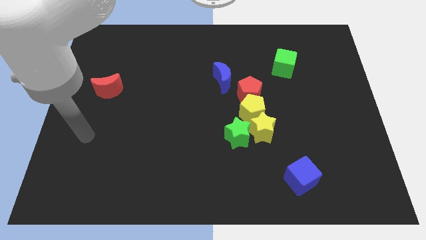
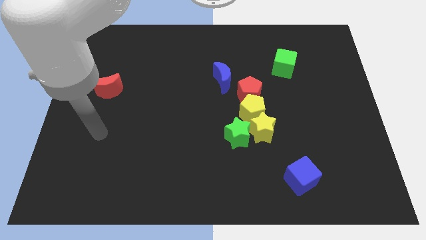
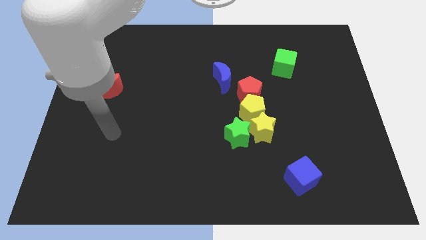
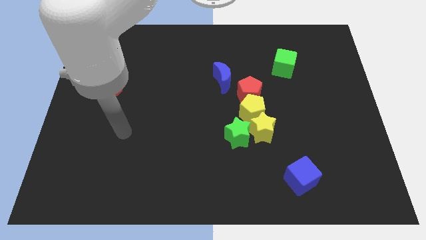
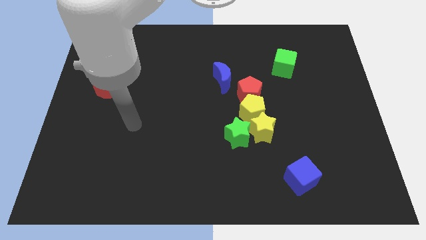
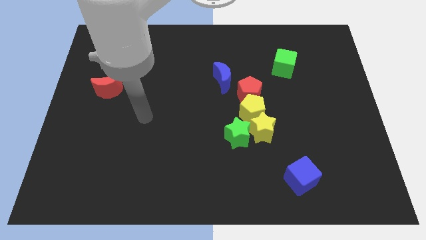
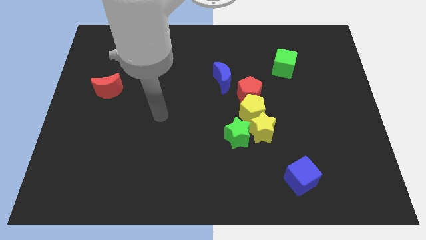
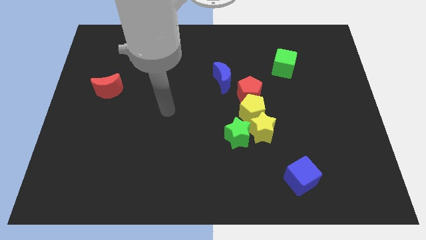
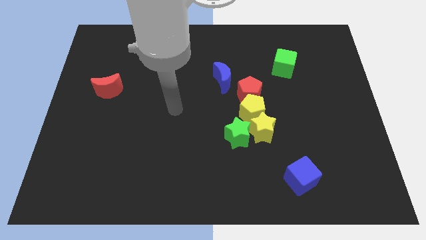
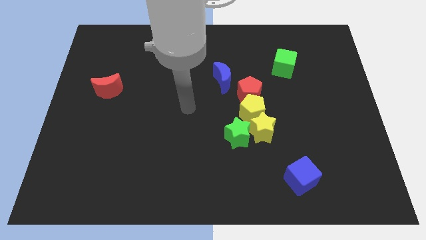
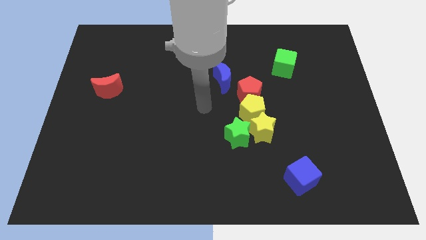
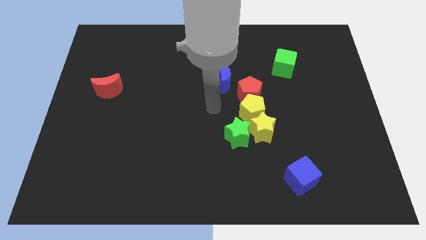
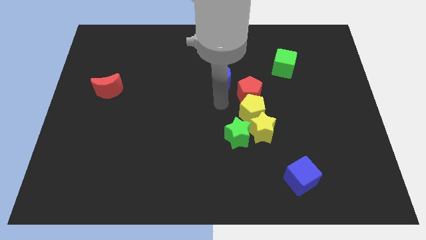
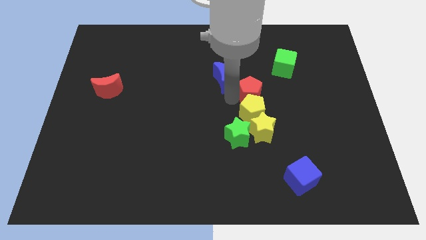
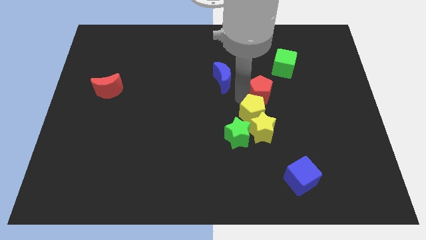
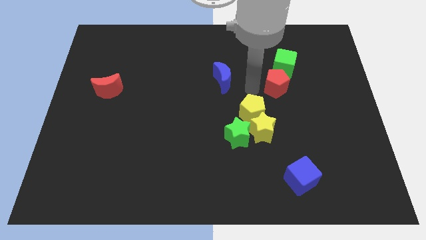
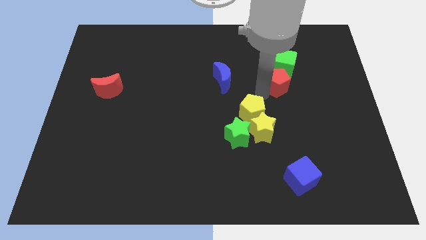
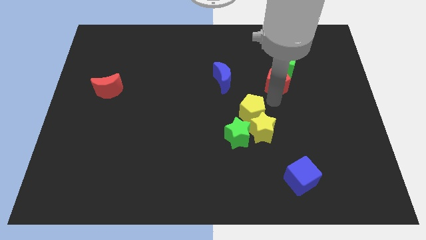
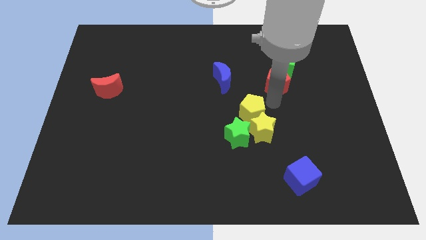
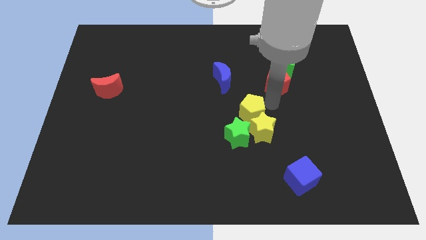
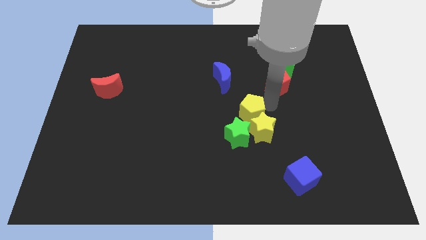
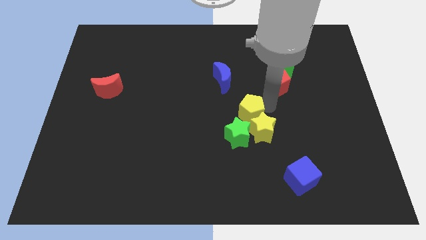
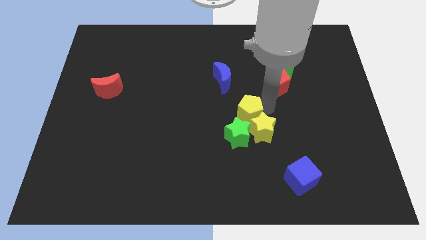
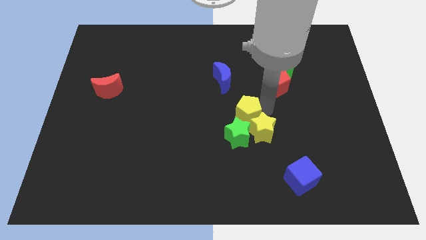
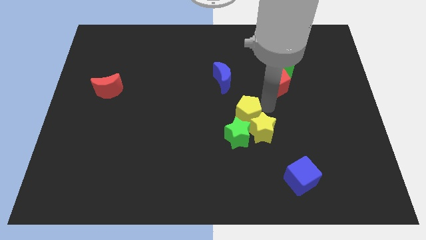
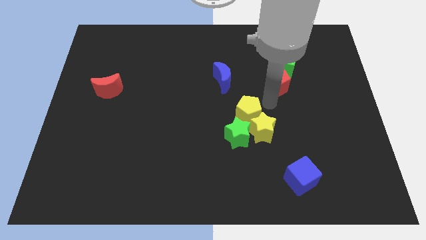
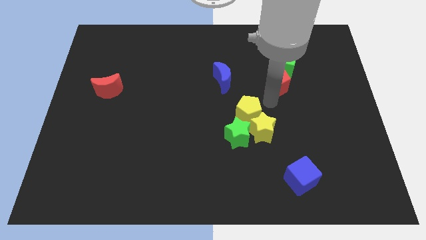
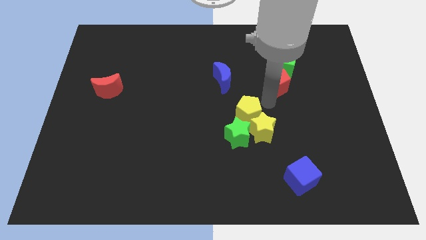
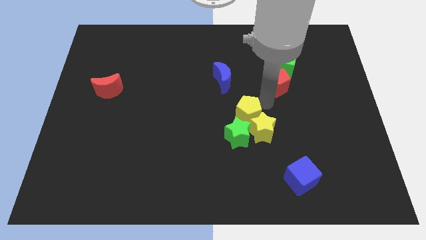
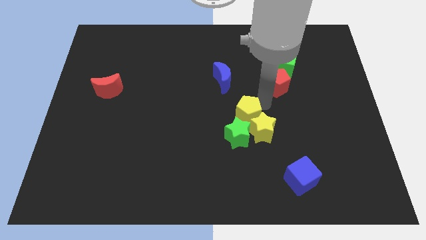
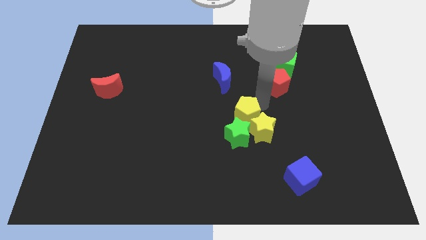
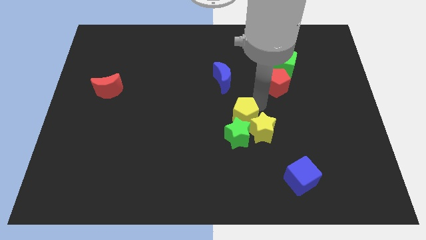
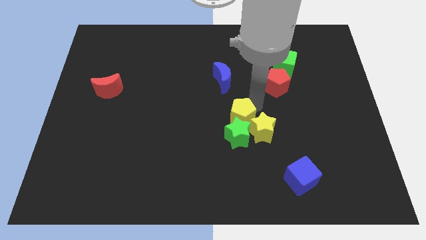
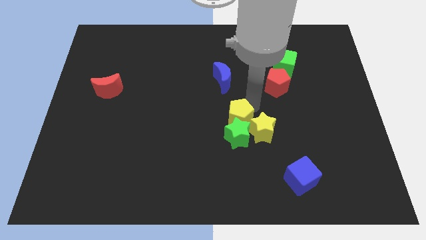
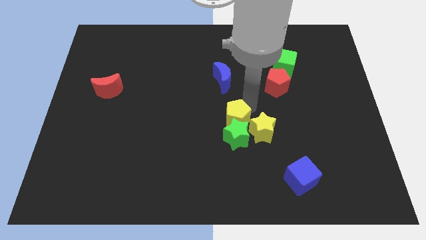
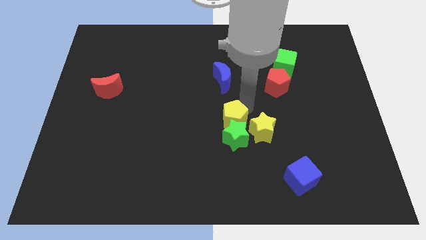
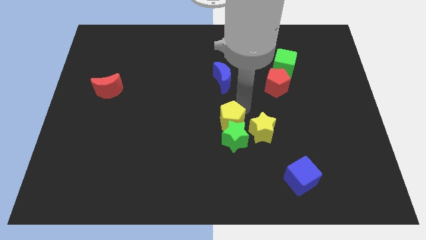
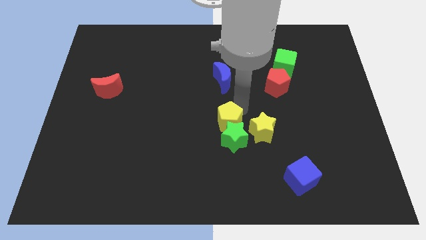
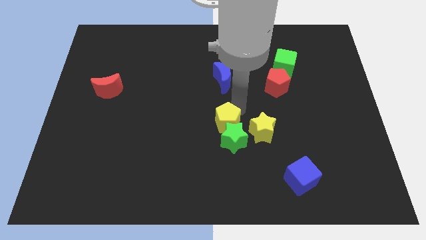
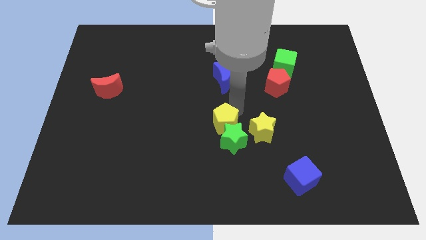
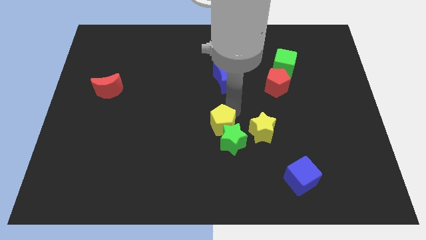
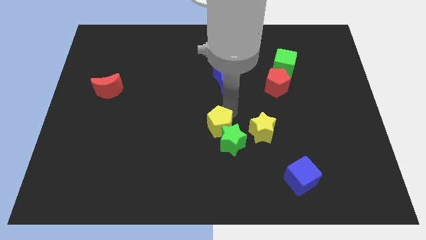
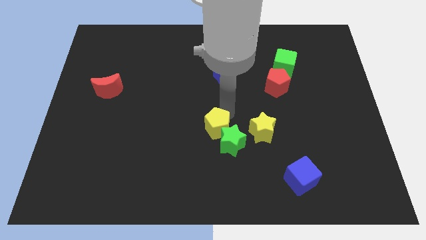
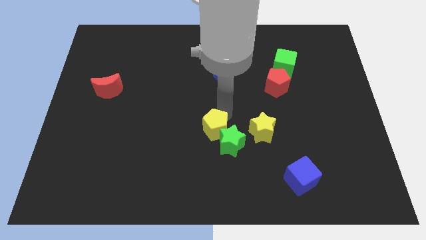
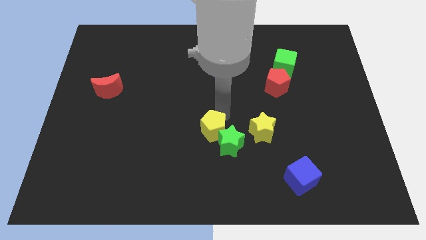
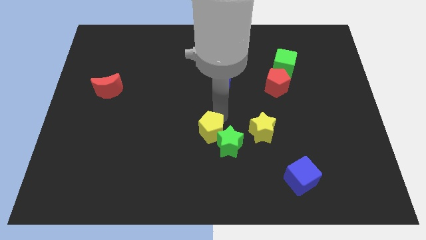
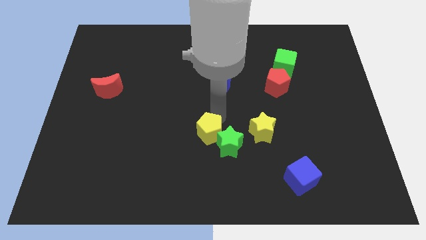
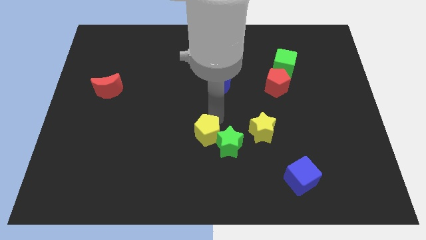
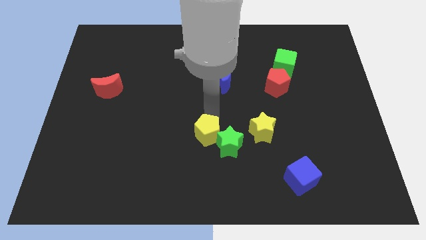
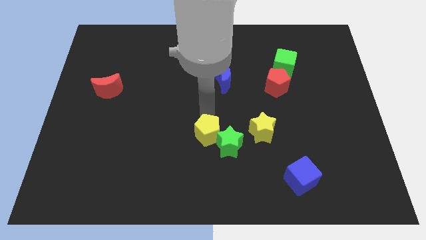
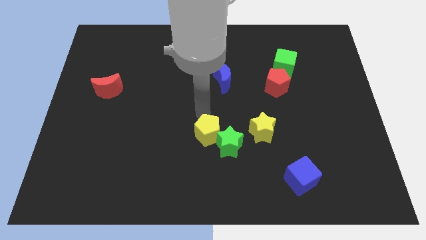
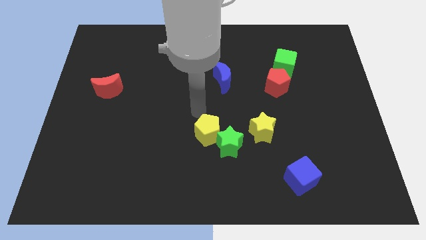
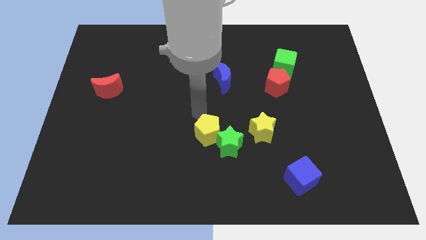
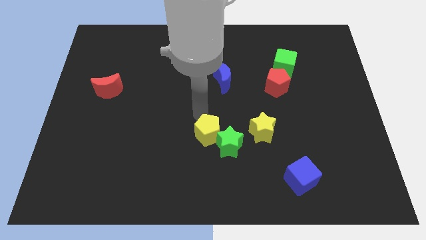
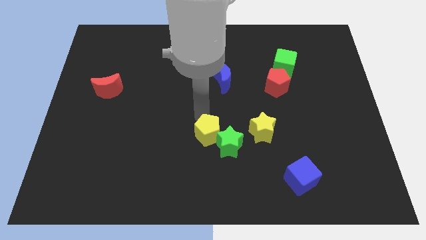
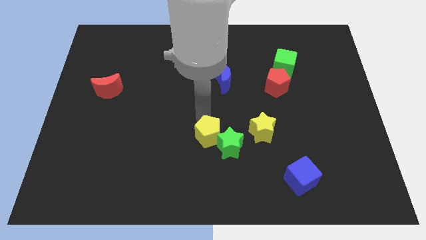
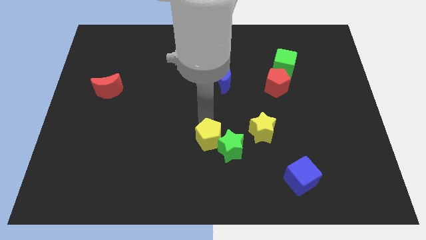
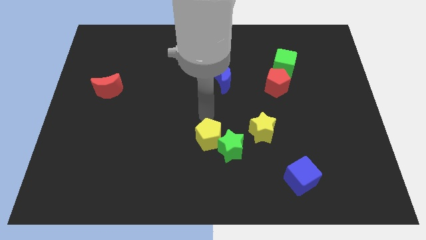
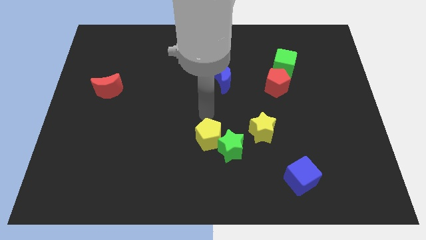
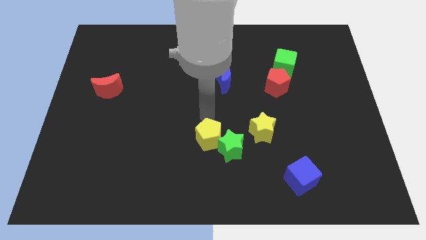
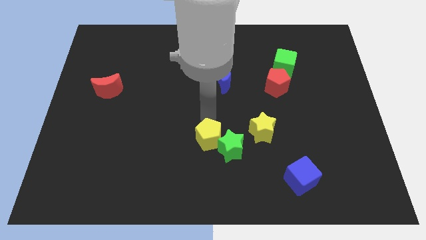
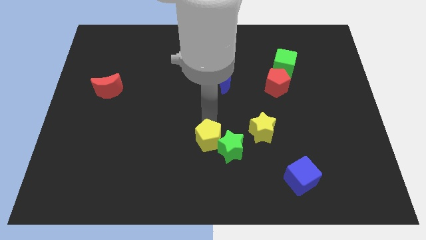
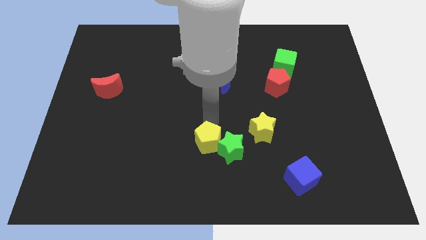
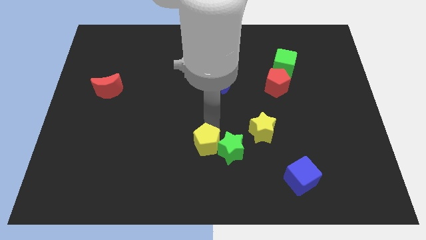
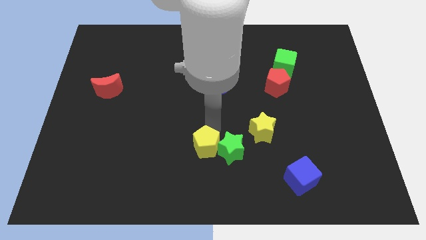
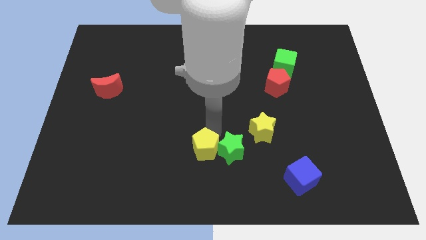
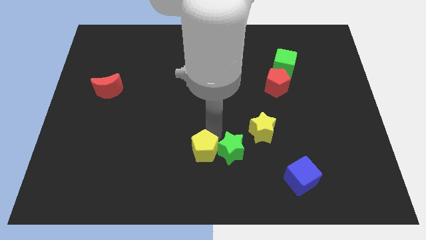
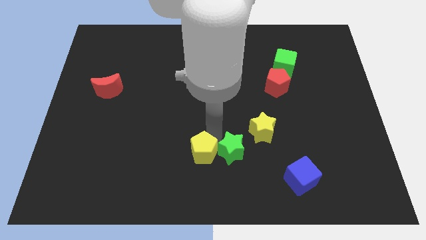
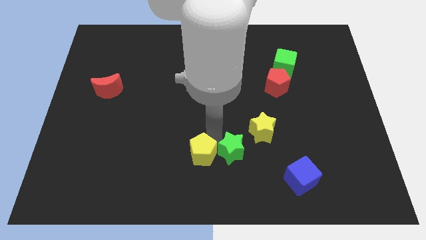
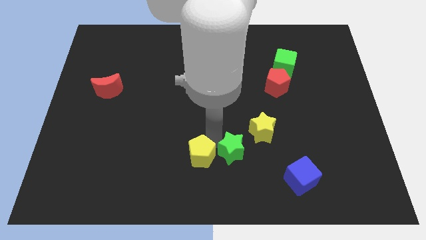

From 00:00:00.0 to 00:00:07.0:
put the yellow pentagon to the bottom
